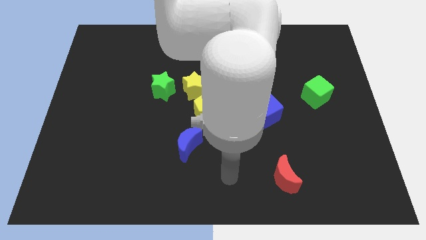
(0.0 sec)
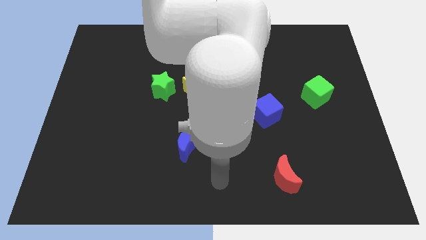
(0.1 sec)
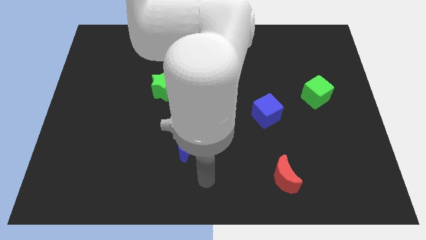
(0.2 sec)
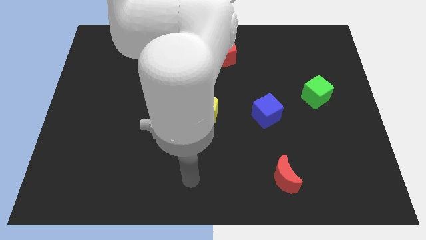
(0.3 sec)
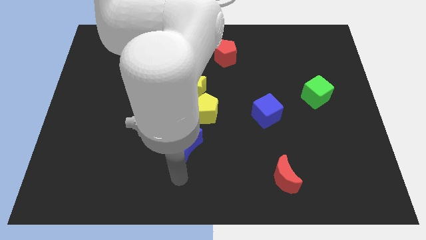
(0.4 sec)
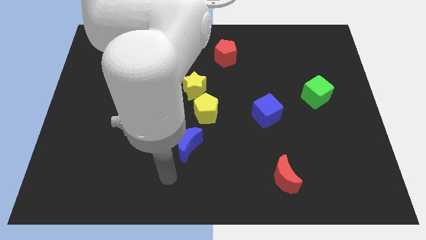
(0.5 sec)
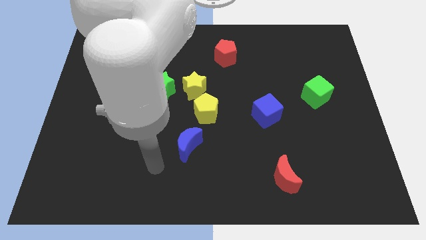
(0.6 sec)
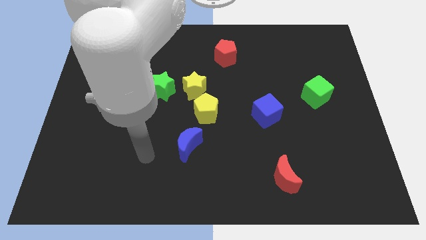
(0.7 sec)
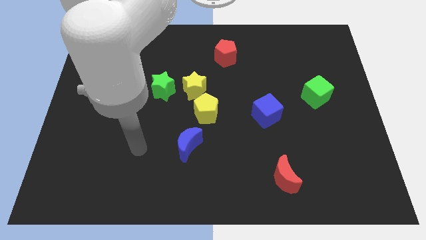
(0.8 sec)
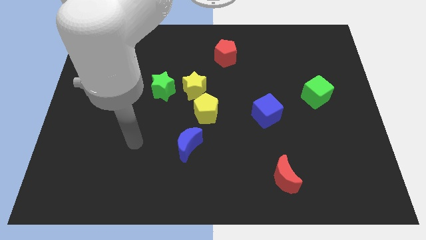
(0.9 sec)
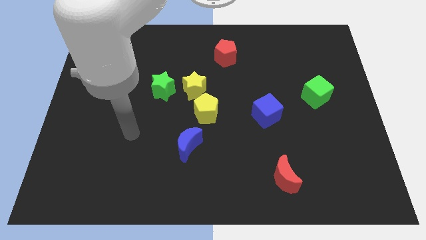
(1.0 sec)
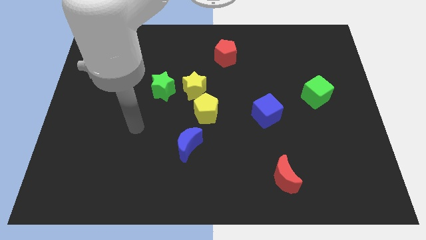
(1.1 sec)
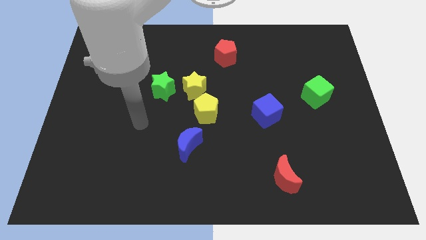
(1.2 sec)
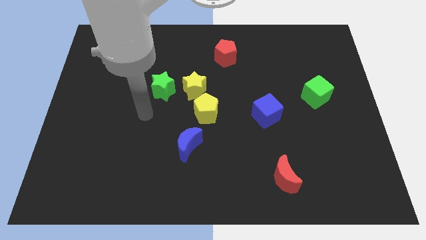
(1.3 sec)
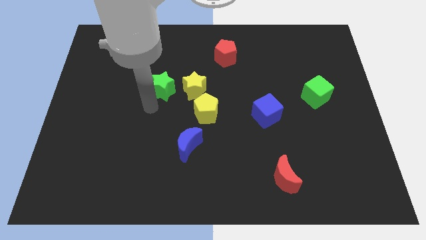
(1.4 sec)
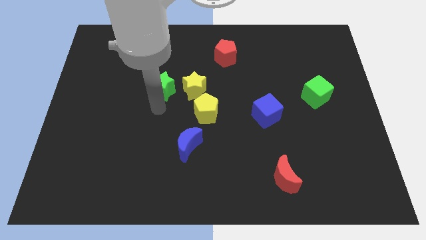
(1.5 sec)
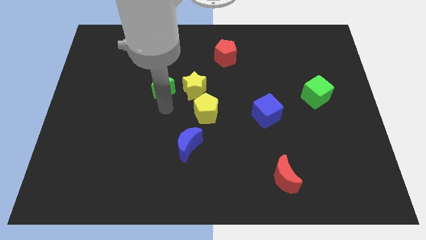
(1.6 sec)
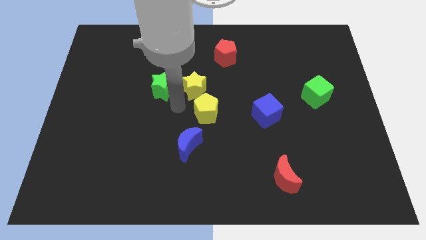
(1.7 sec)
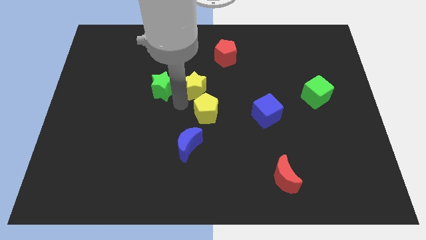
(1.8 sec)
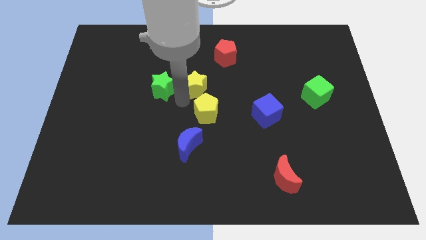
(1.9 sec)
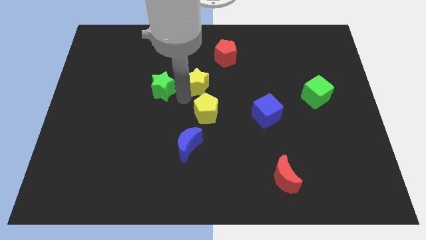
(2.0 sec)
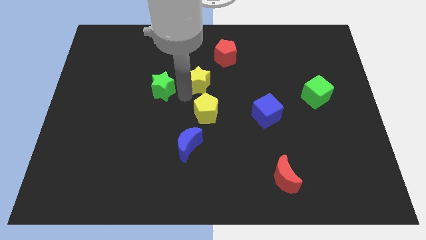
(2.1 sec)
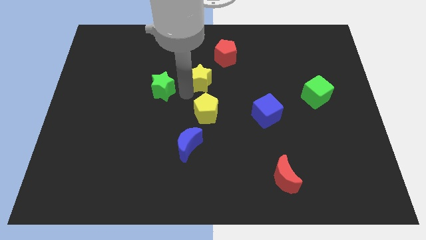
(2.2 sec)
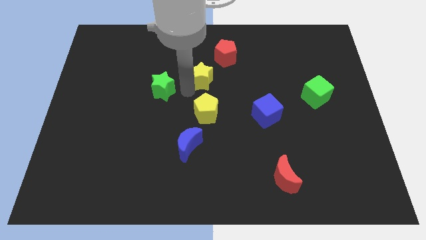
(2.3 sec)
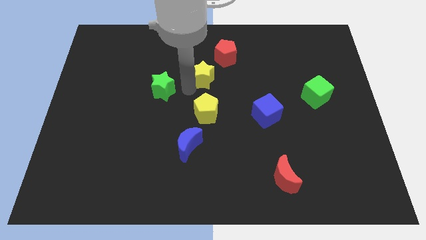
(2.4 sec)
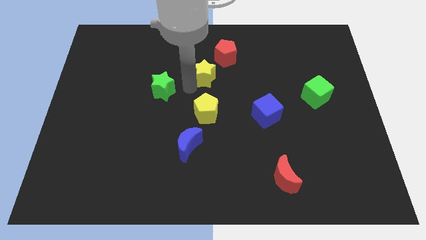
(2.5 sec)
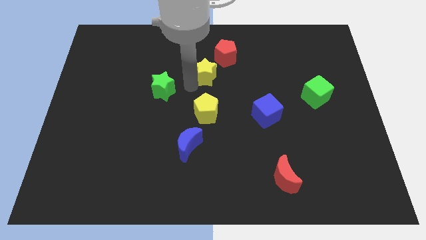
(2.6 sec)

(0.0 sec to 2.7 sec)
separate the yellow star from the yellow pentagon and green star

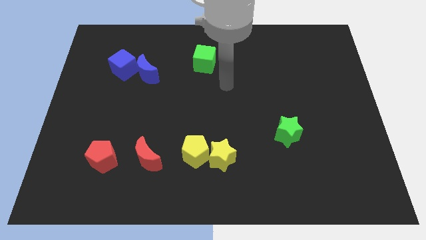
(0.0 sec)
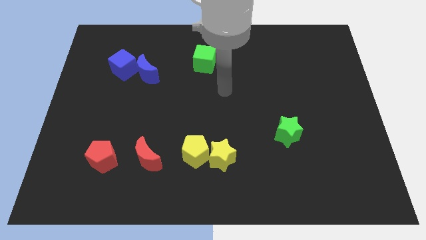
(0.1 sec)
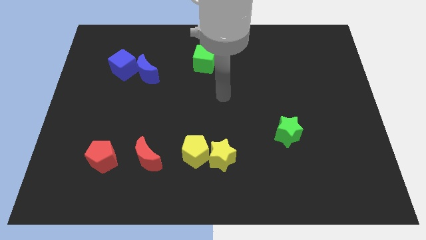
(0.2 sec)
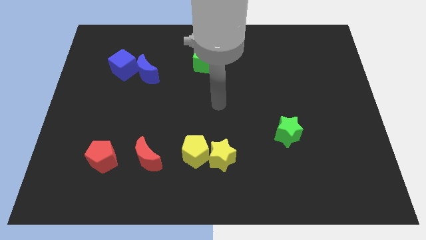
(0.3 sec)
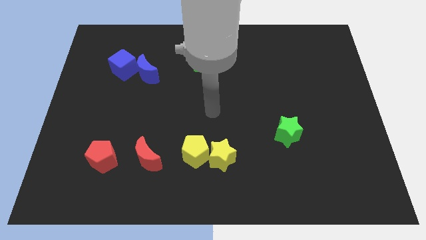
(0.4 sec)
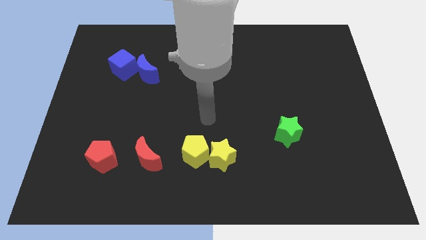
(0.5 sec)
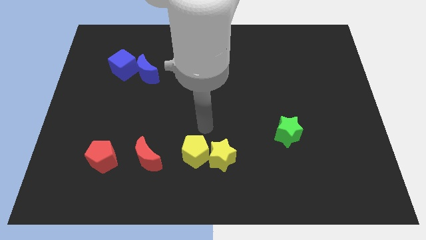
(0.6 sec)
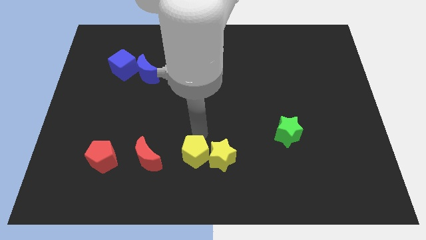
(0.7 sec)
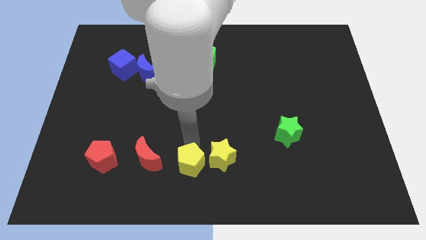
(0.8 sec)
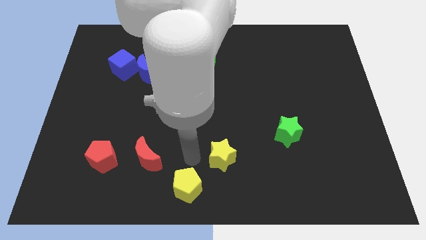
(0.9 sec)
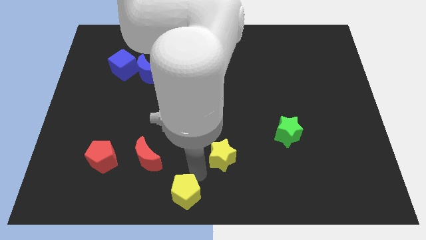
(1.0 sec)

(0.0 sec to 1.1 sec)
move the yellow star away from the yellow pentagon

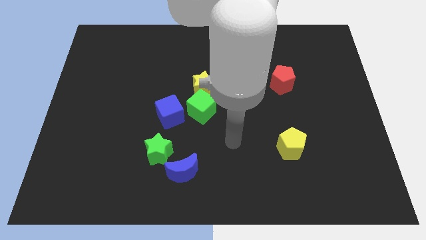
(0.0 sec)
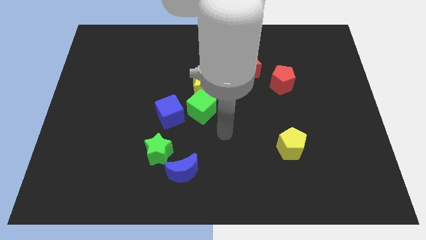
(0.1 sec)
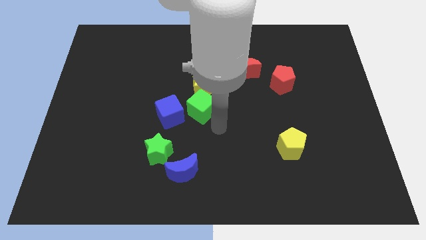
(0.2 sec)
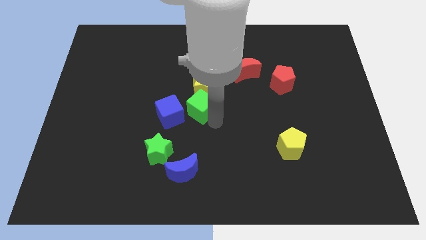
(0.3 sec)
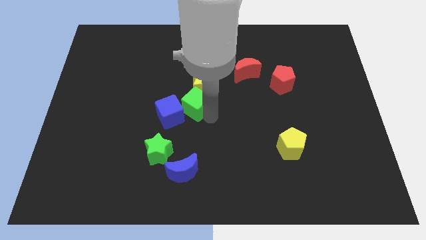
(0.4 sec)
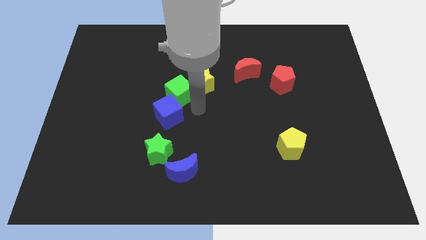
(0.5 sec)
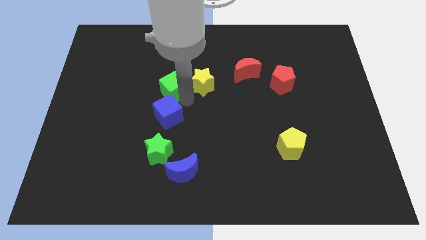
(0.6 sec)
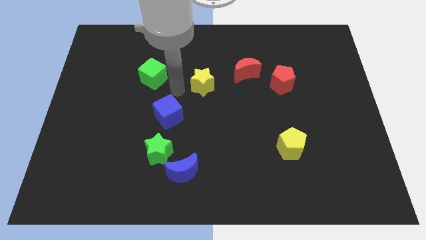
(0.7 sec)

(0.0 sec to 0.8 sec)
pull the yellow star apart from the green cube

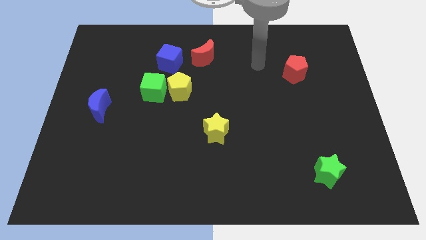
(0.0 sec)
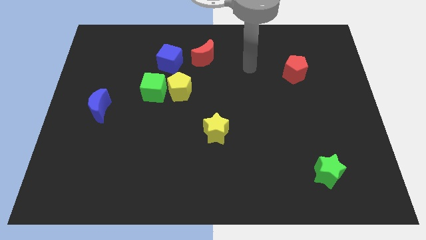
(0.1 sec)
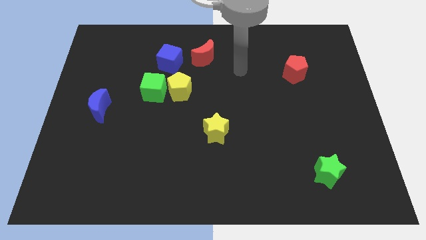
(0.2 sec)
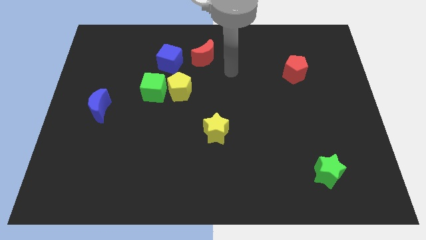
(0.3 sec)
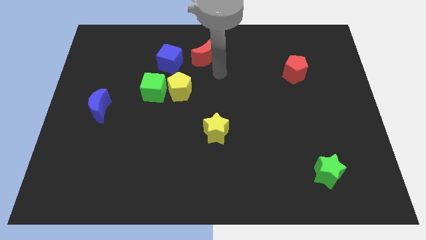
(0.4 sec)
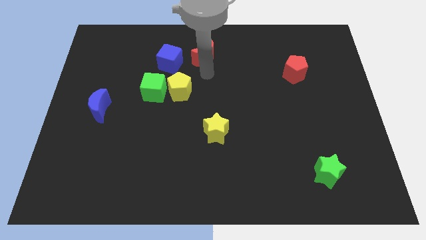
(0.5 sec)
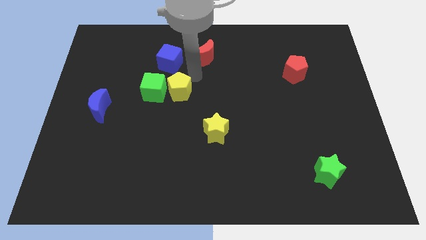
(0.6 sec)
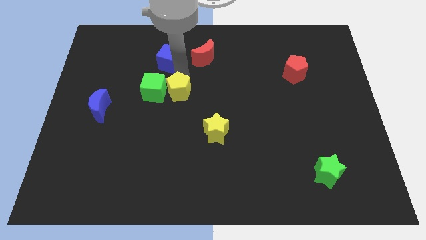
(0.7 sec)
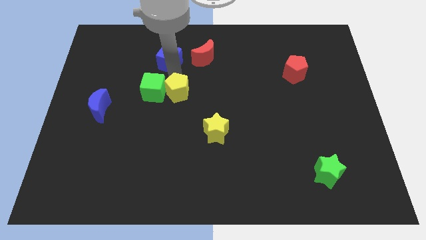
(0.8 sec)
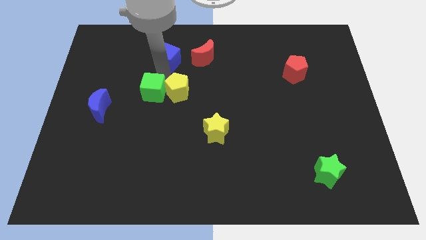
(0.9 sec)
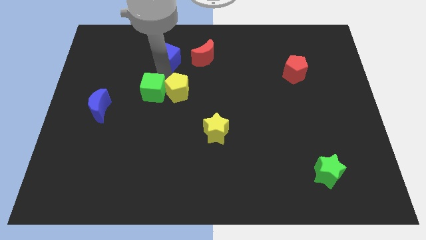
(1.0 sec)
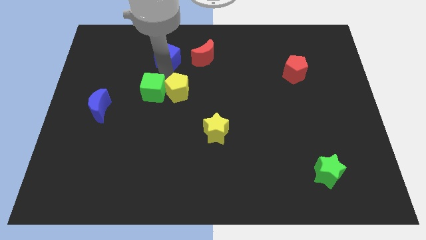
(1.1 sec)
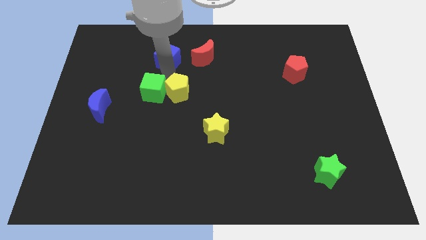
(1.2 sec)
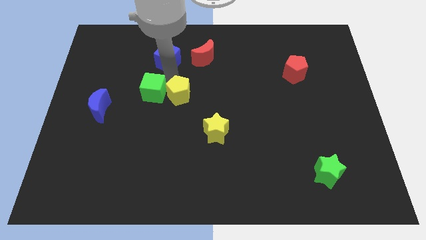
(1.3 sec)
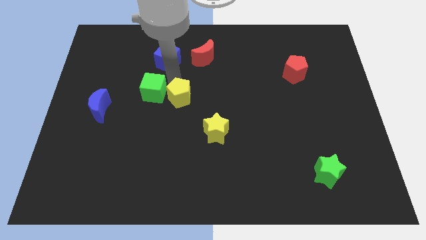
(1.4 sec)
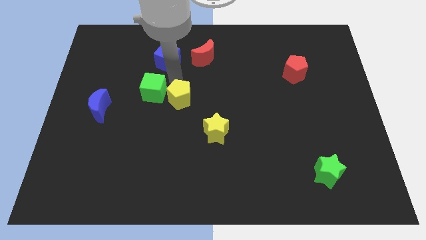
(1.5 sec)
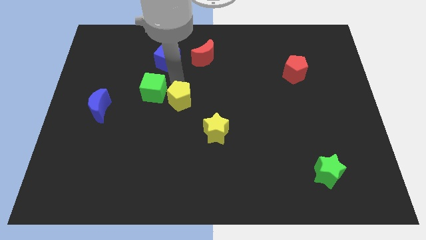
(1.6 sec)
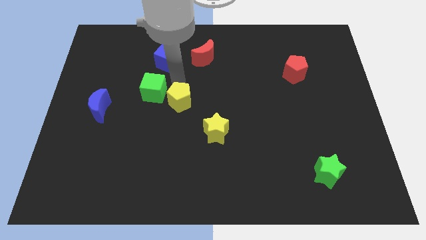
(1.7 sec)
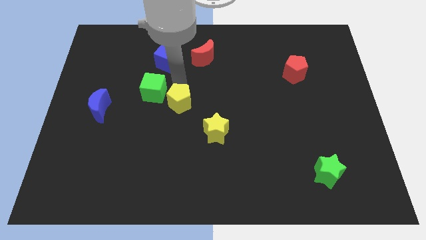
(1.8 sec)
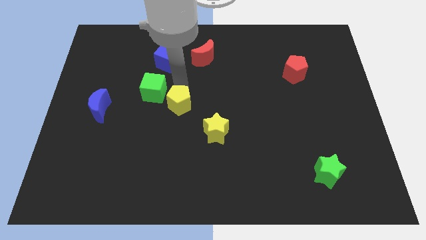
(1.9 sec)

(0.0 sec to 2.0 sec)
pull the yellow pentagon apart from the green cube and blue cube

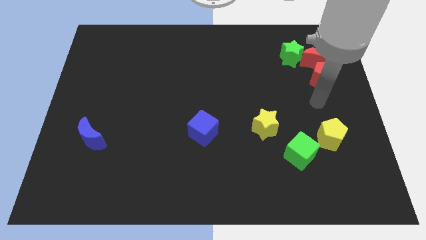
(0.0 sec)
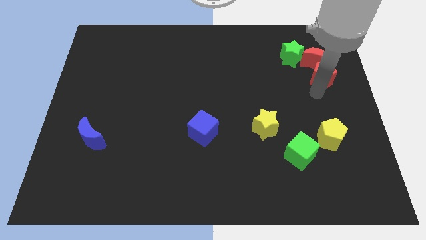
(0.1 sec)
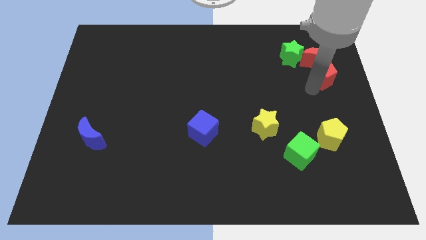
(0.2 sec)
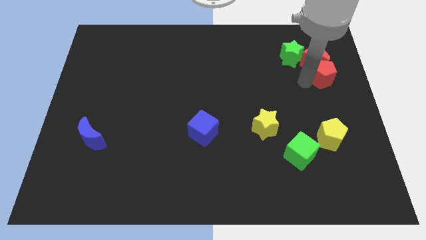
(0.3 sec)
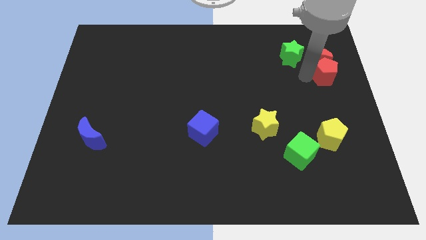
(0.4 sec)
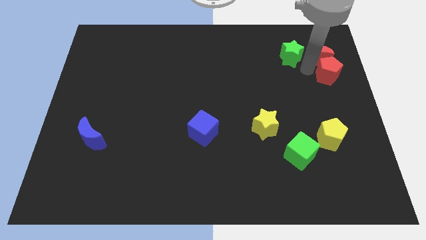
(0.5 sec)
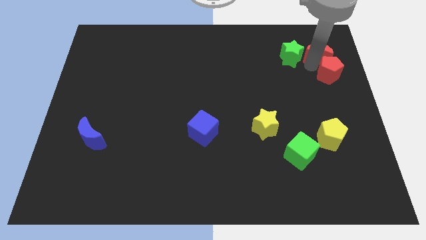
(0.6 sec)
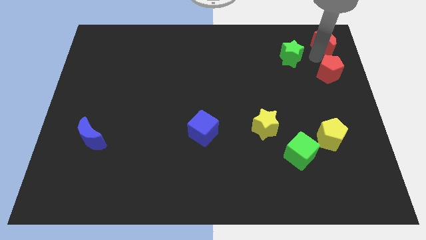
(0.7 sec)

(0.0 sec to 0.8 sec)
separate the red pentagon from the red moon

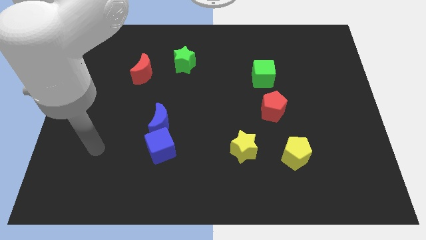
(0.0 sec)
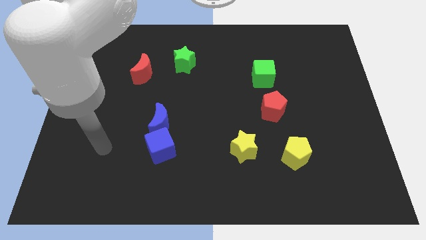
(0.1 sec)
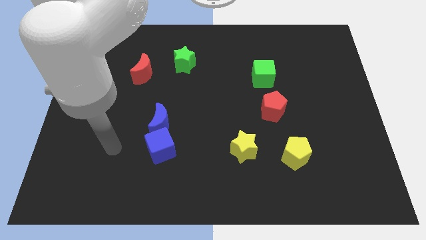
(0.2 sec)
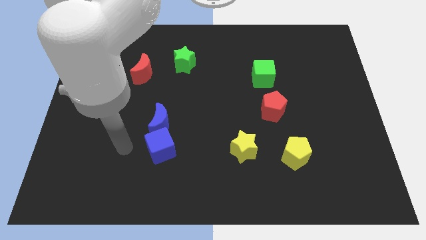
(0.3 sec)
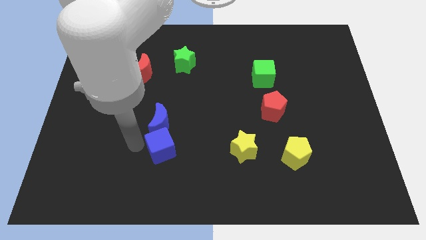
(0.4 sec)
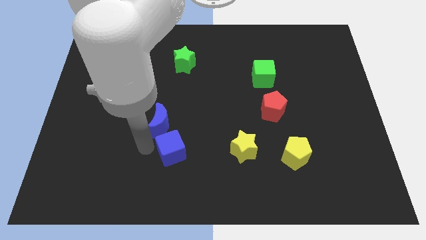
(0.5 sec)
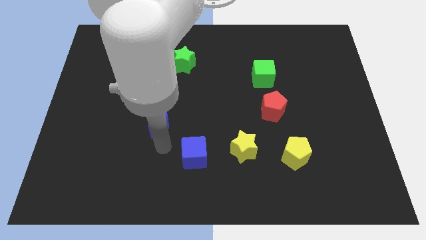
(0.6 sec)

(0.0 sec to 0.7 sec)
move the blue moon away from the blue cube

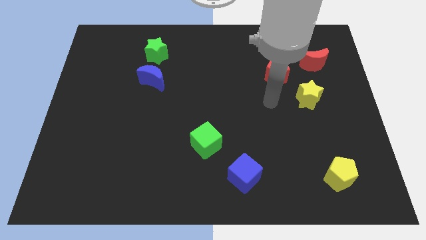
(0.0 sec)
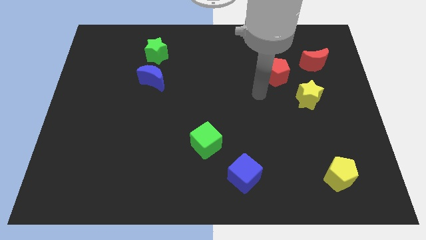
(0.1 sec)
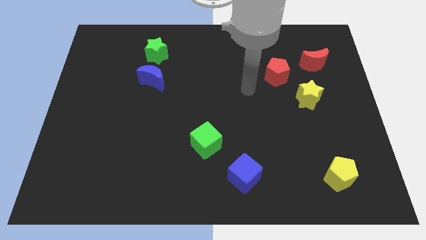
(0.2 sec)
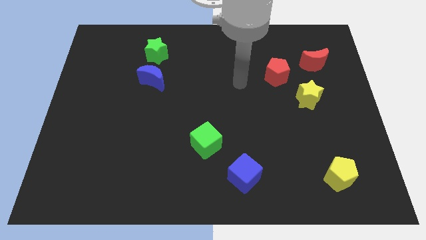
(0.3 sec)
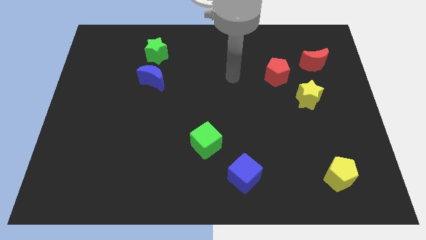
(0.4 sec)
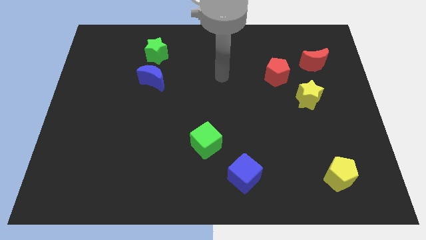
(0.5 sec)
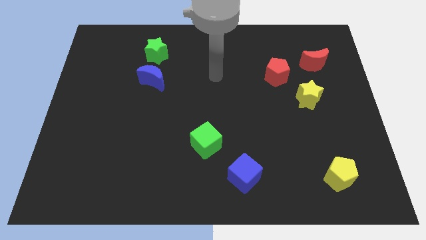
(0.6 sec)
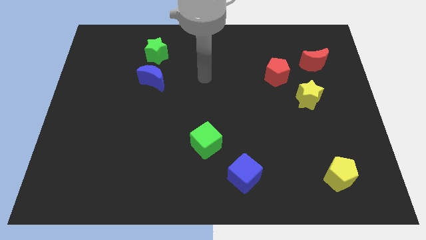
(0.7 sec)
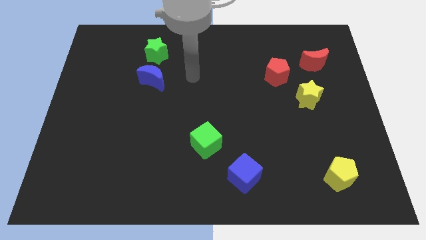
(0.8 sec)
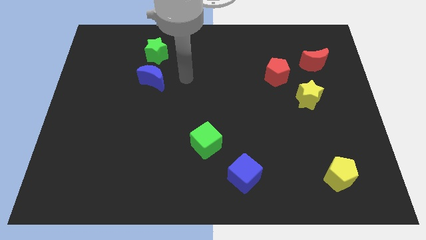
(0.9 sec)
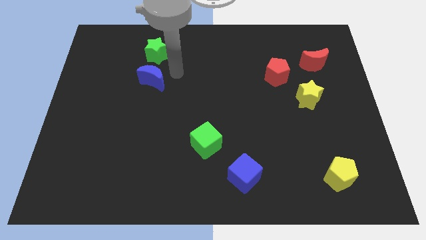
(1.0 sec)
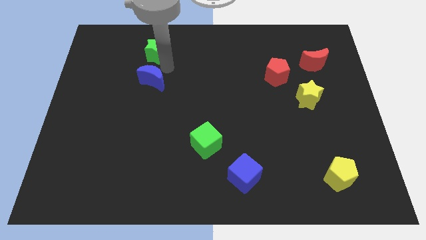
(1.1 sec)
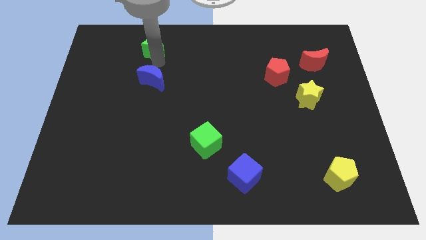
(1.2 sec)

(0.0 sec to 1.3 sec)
move the blue moon away from the green star
